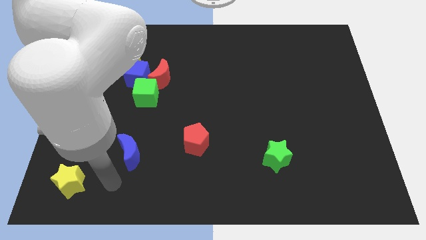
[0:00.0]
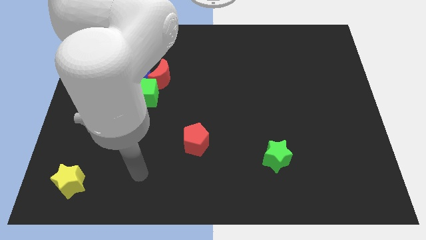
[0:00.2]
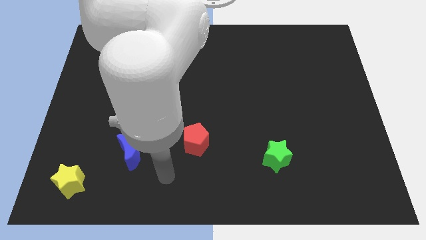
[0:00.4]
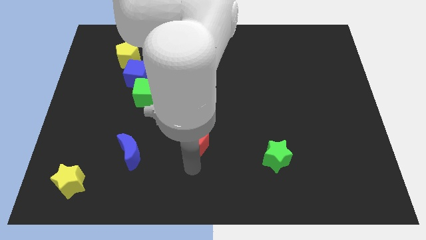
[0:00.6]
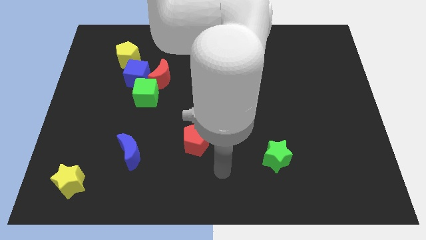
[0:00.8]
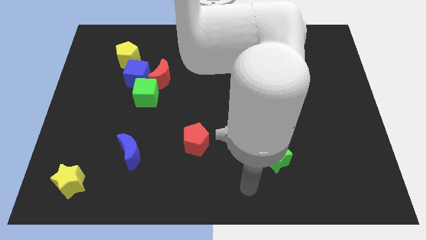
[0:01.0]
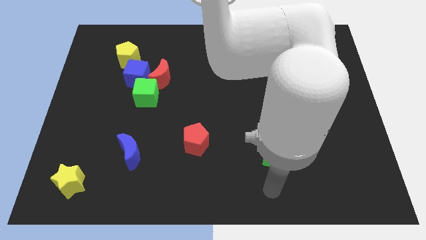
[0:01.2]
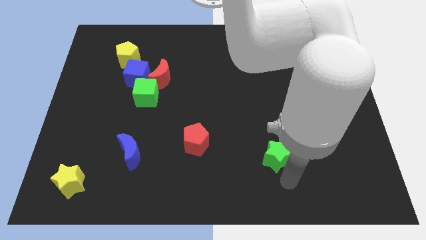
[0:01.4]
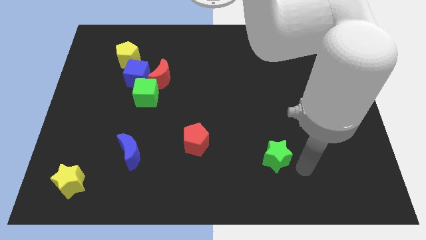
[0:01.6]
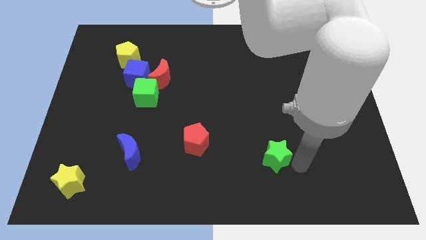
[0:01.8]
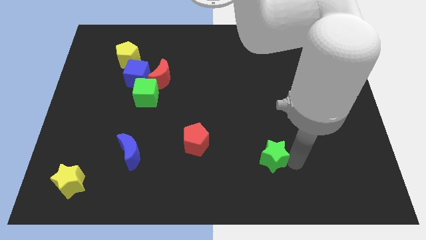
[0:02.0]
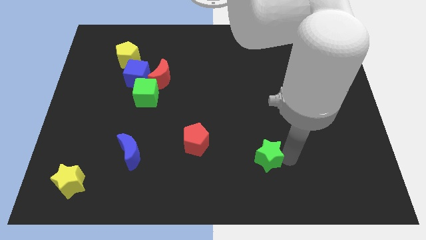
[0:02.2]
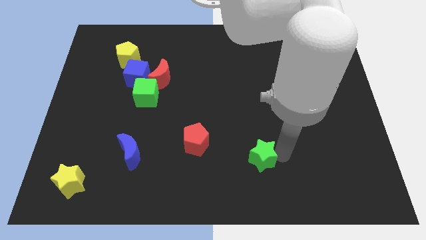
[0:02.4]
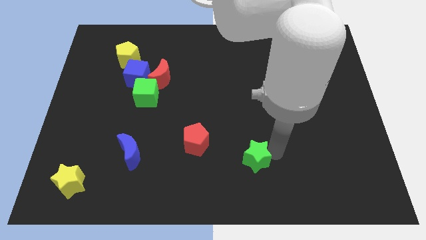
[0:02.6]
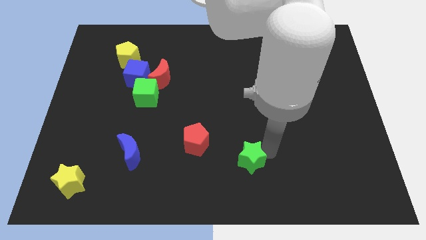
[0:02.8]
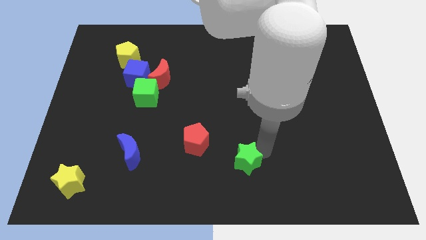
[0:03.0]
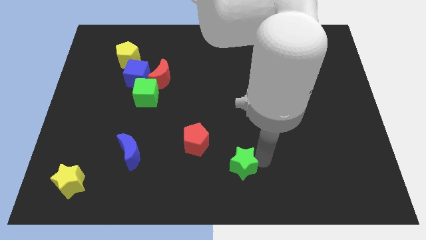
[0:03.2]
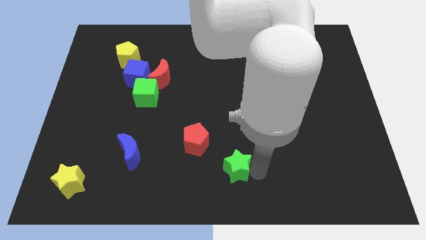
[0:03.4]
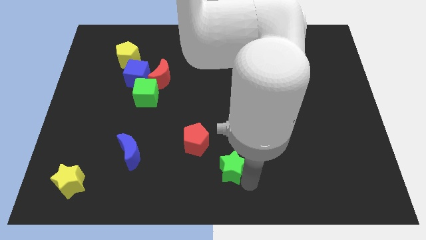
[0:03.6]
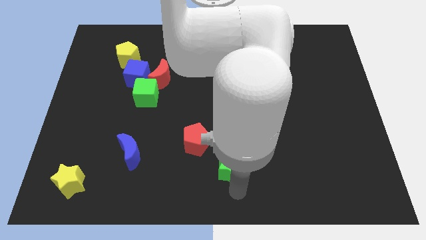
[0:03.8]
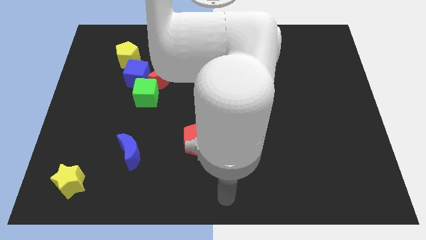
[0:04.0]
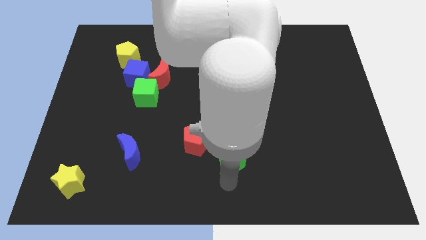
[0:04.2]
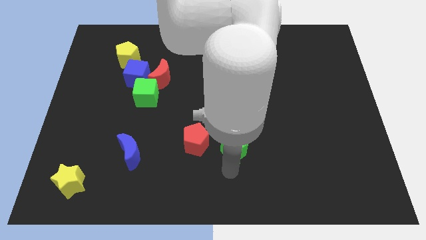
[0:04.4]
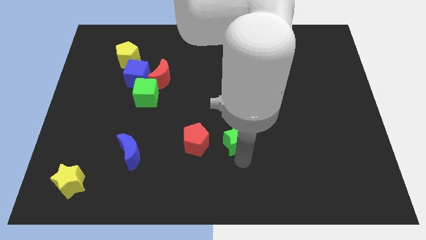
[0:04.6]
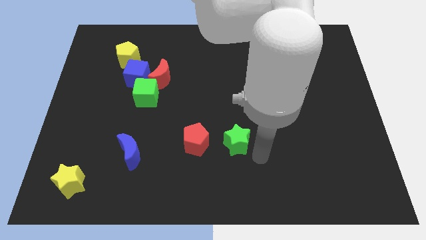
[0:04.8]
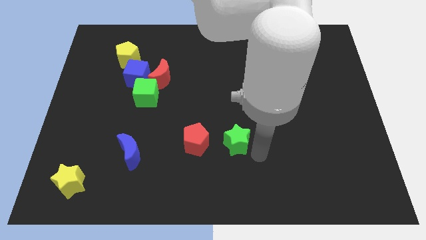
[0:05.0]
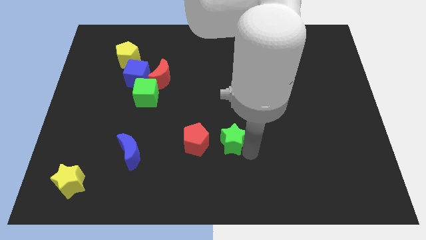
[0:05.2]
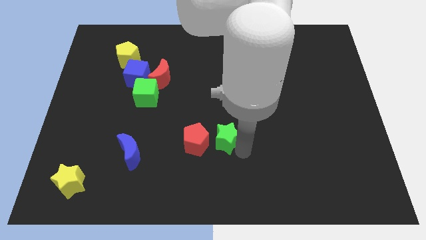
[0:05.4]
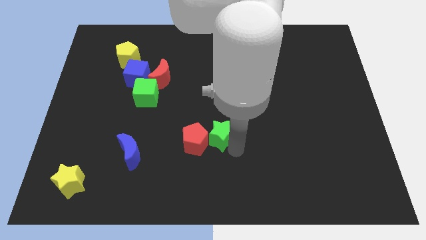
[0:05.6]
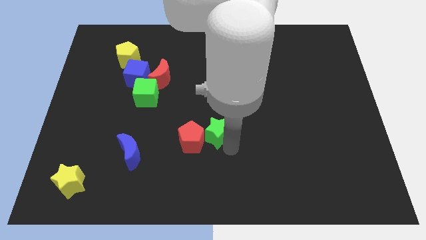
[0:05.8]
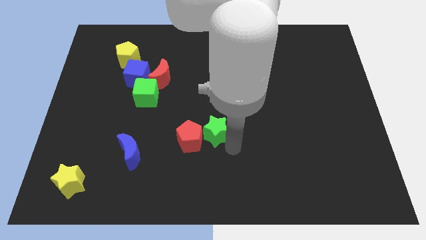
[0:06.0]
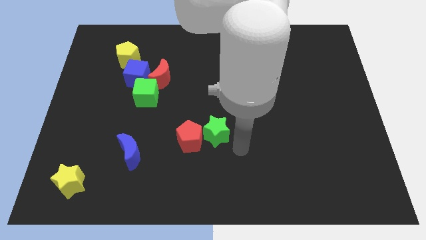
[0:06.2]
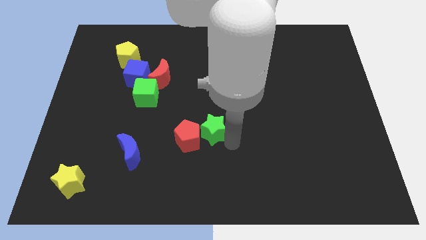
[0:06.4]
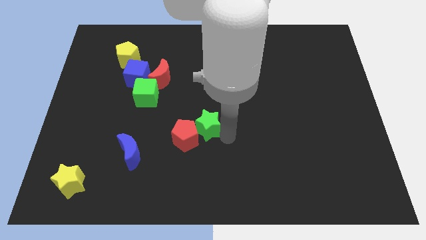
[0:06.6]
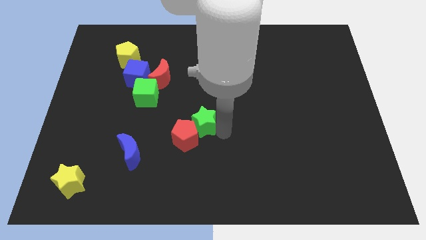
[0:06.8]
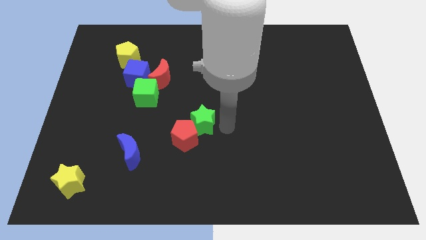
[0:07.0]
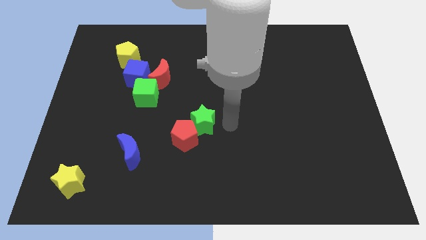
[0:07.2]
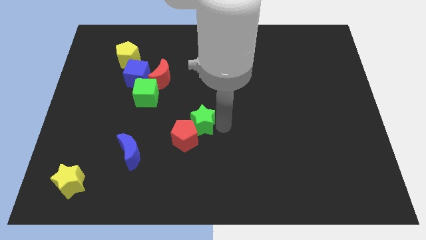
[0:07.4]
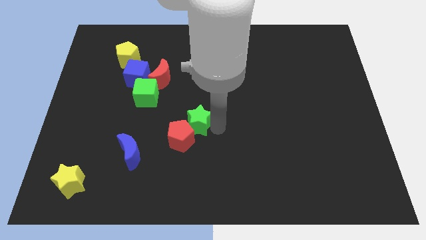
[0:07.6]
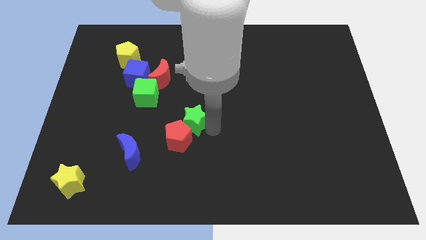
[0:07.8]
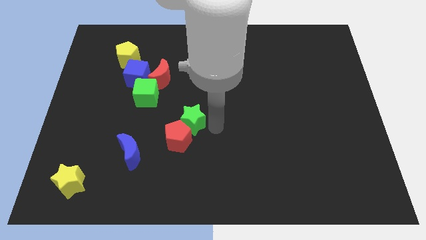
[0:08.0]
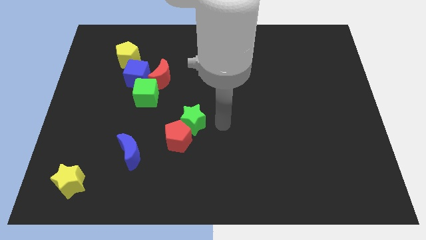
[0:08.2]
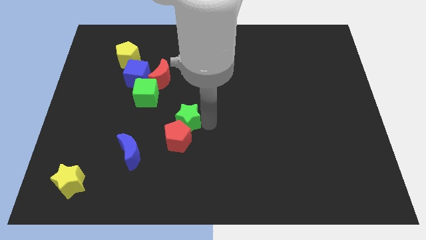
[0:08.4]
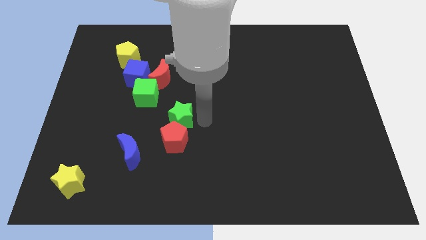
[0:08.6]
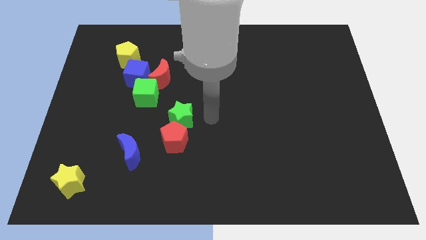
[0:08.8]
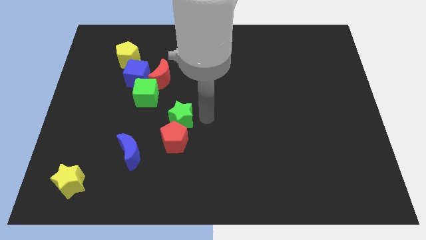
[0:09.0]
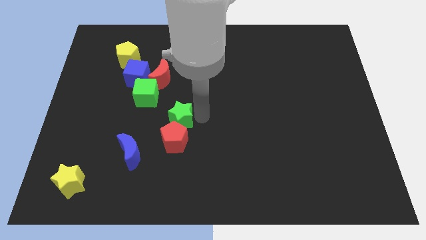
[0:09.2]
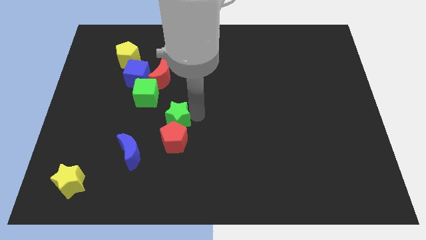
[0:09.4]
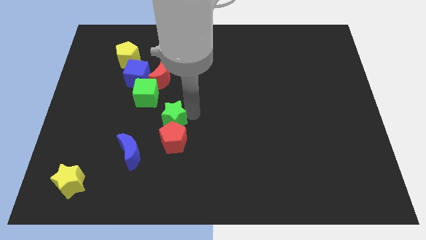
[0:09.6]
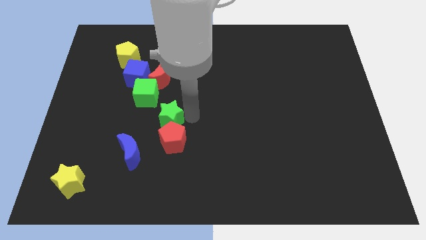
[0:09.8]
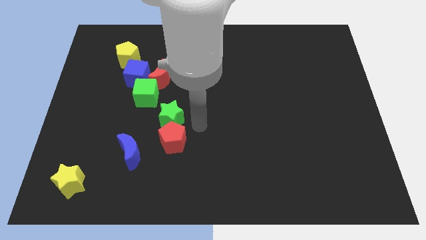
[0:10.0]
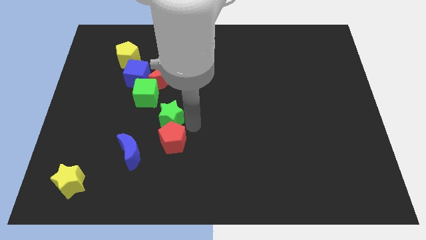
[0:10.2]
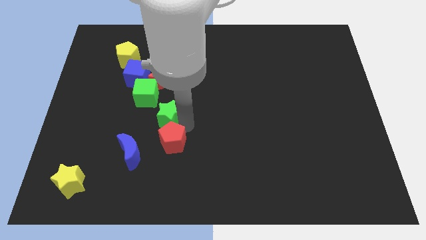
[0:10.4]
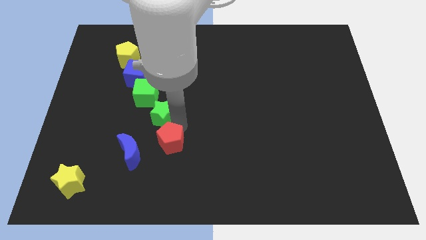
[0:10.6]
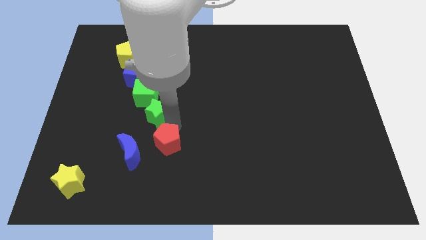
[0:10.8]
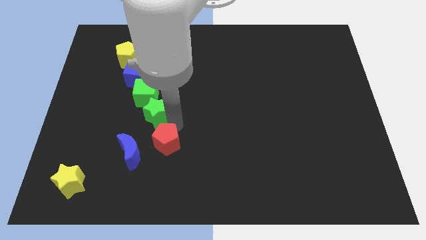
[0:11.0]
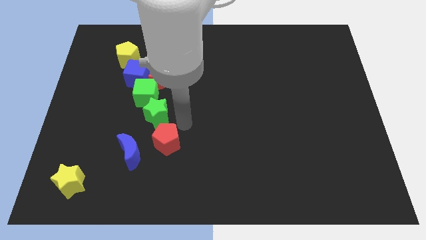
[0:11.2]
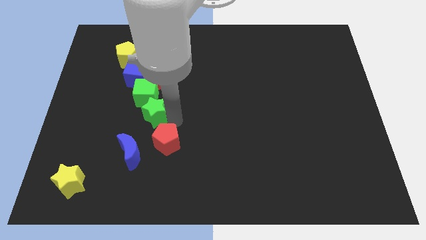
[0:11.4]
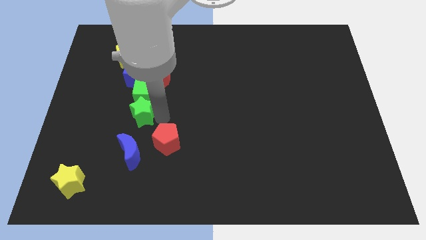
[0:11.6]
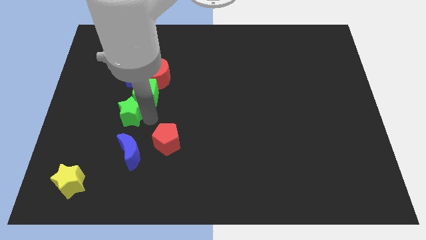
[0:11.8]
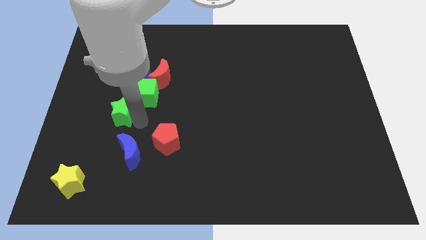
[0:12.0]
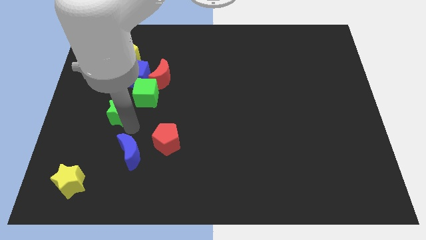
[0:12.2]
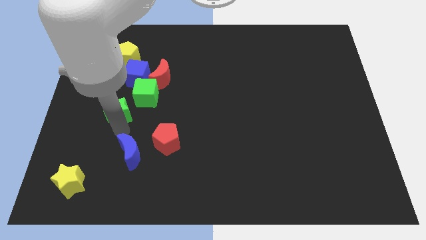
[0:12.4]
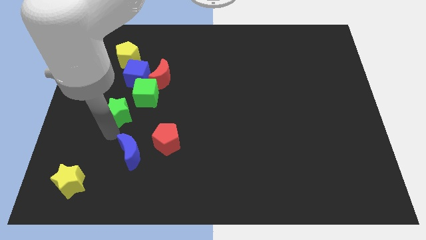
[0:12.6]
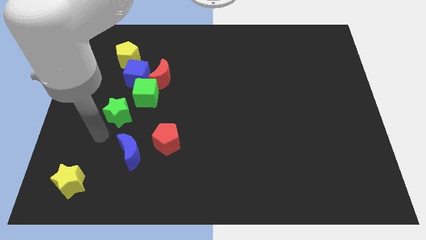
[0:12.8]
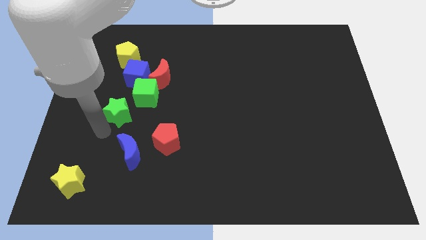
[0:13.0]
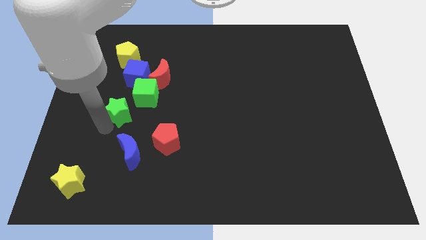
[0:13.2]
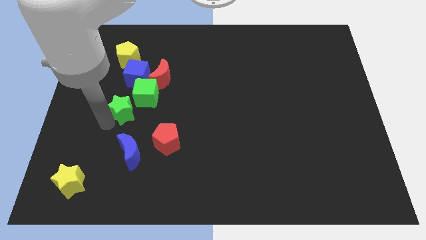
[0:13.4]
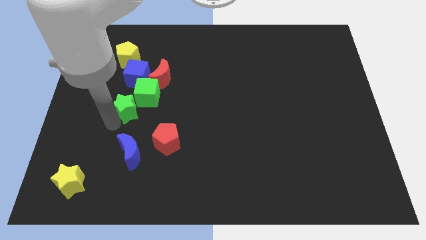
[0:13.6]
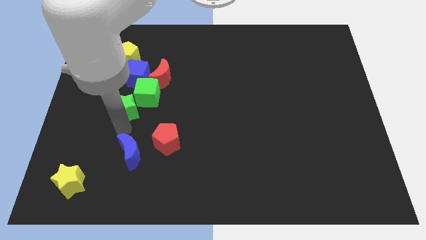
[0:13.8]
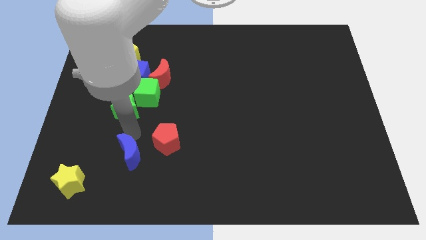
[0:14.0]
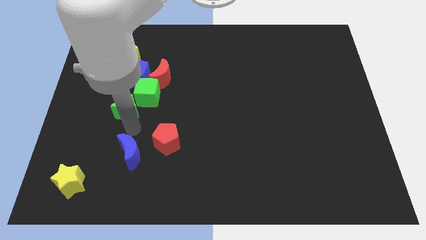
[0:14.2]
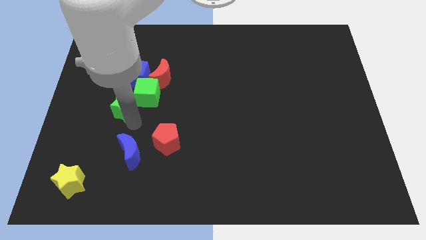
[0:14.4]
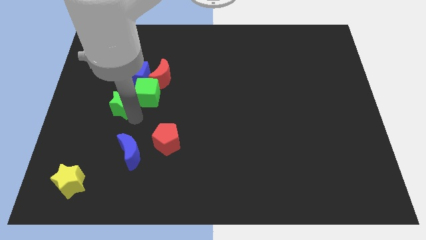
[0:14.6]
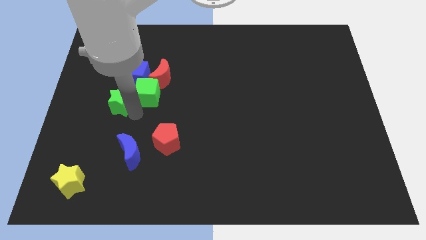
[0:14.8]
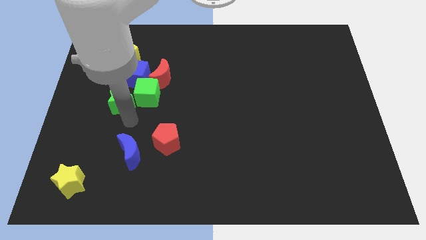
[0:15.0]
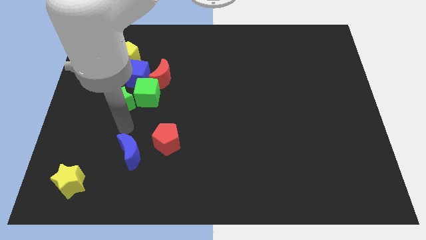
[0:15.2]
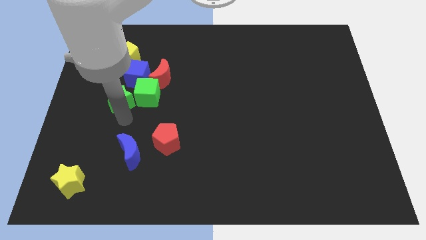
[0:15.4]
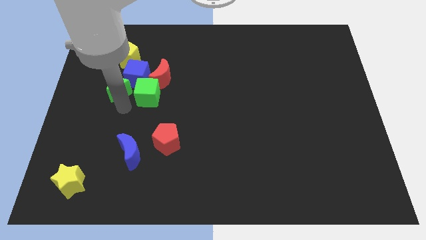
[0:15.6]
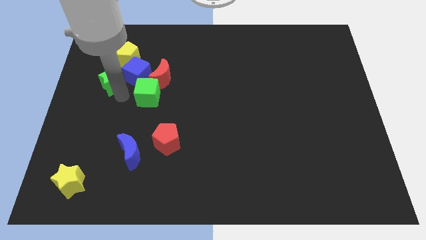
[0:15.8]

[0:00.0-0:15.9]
push the green star diagonally down and to the left of the yellow pentagon
